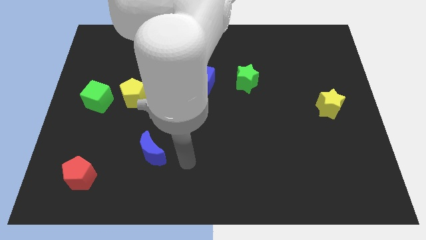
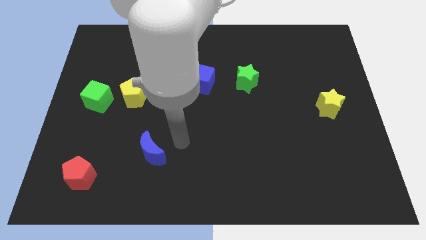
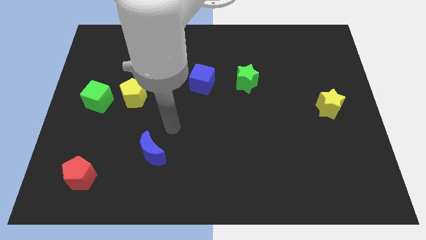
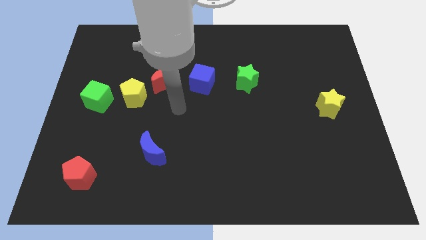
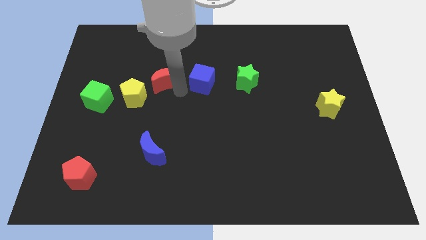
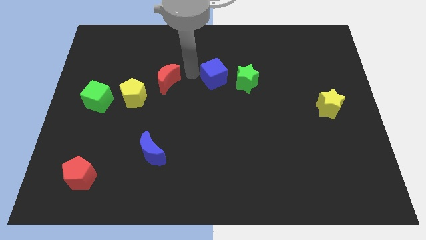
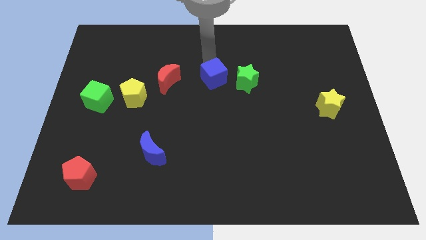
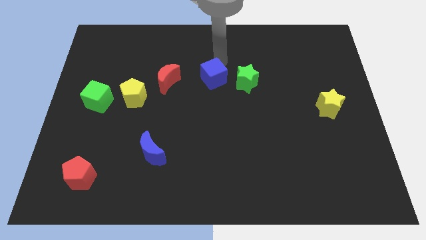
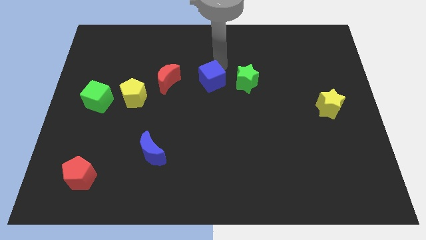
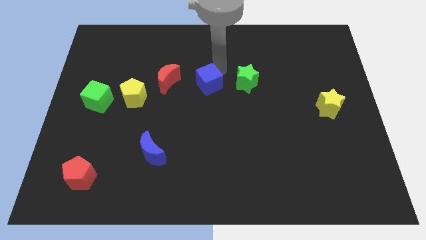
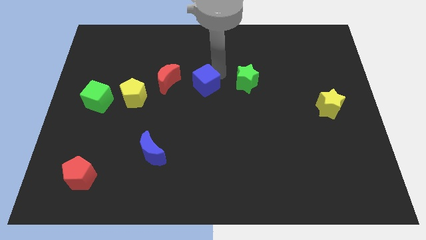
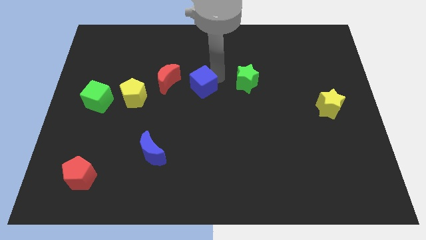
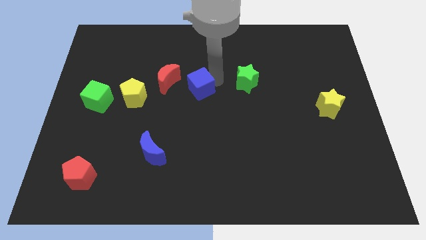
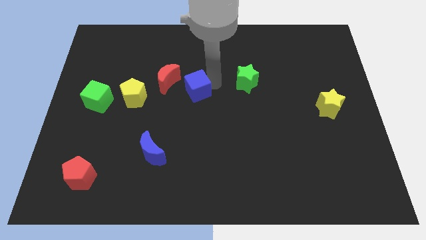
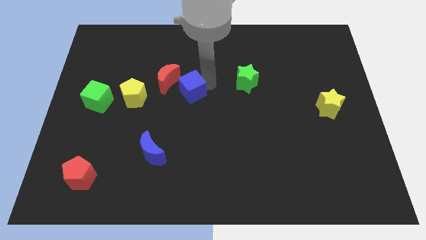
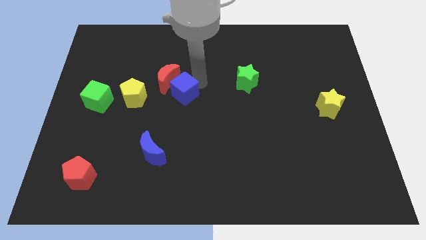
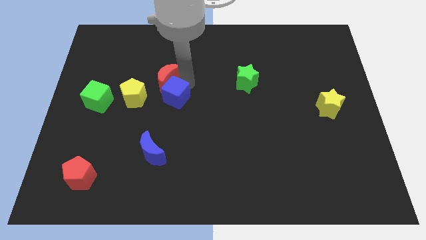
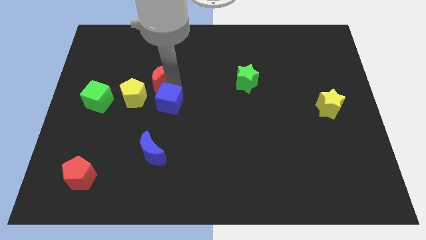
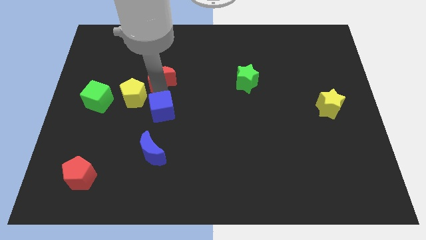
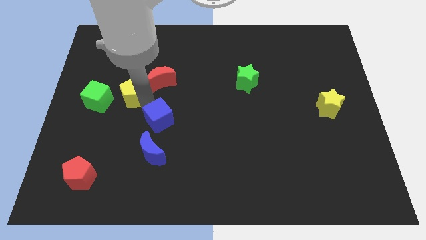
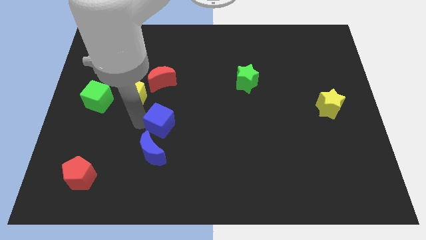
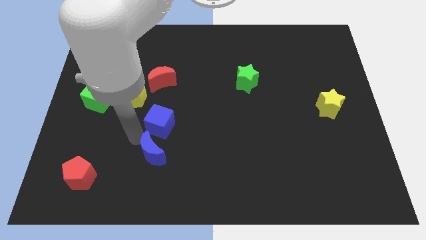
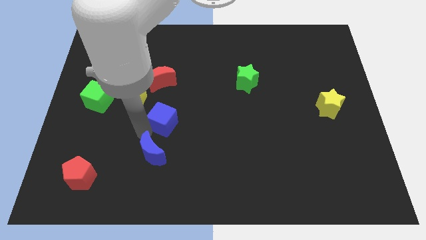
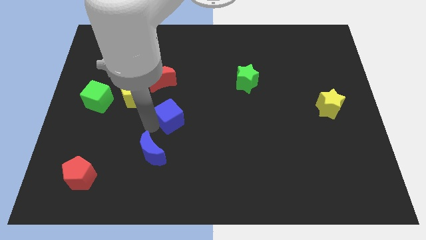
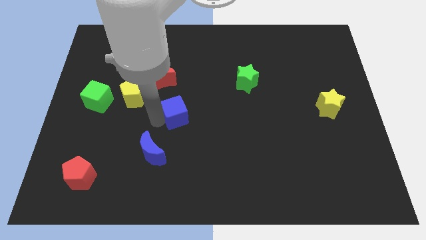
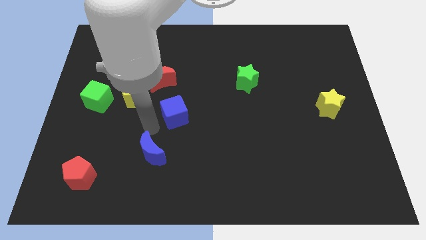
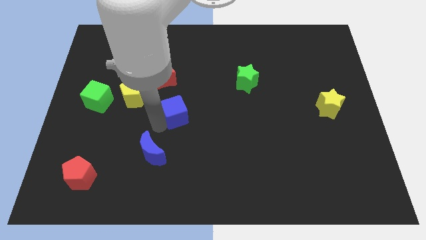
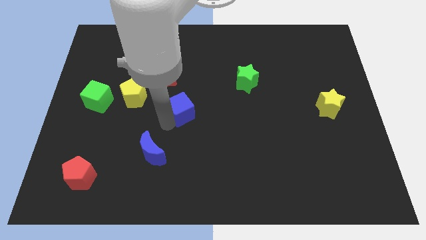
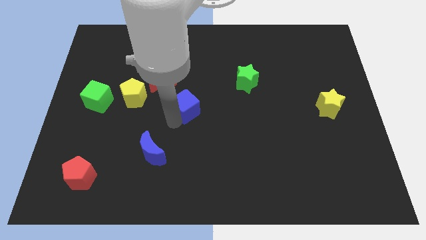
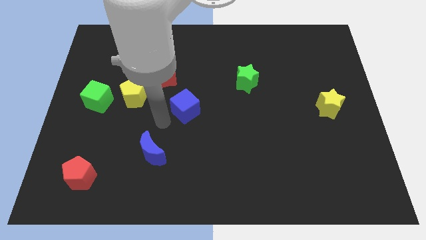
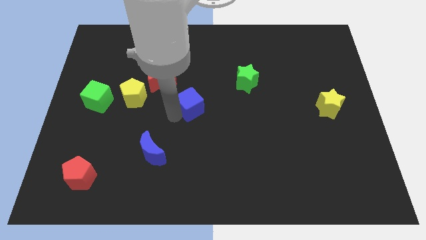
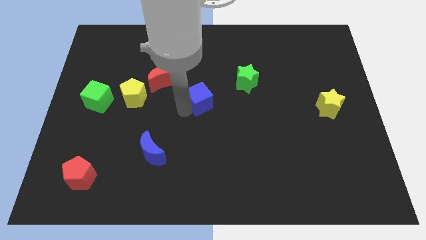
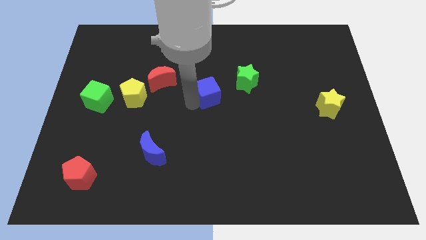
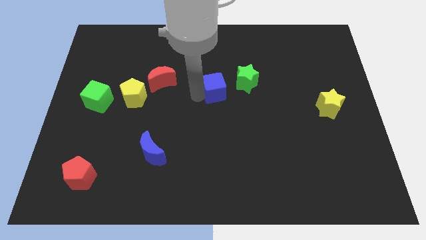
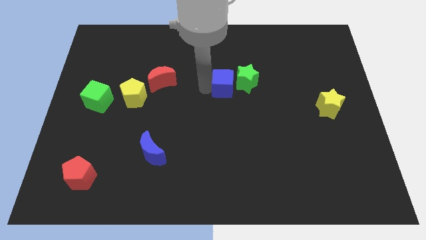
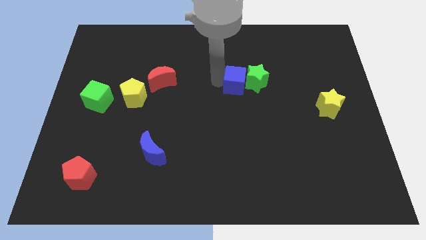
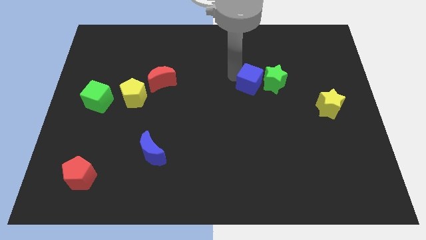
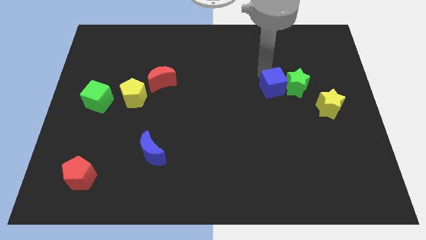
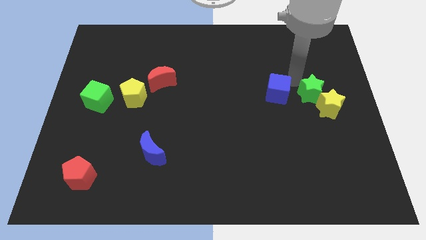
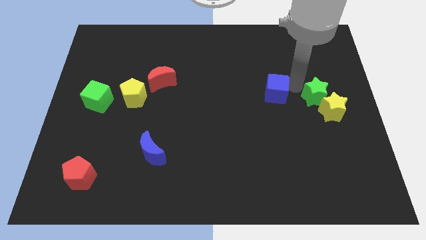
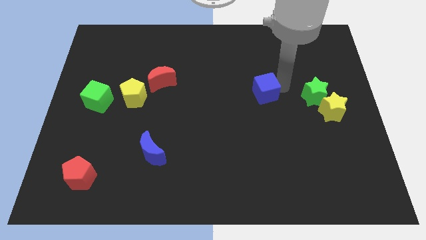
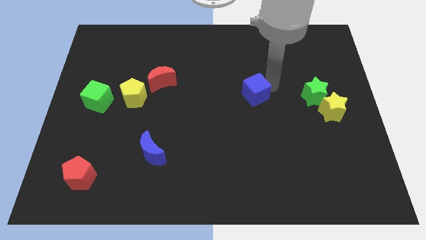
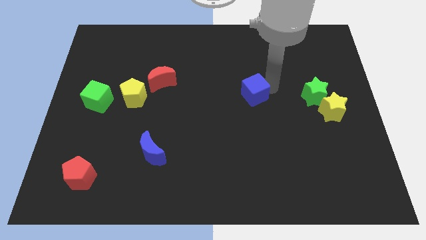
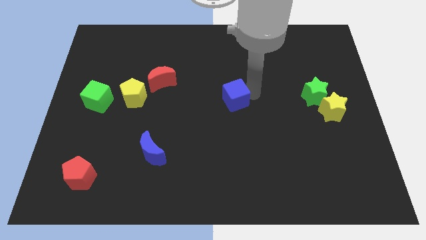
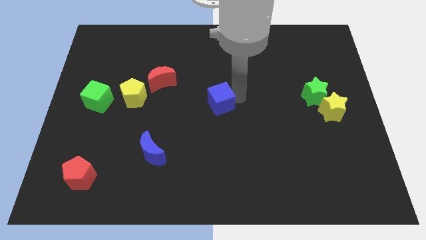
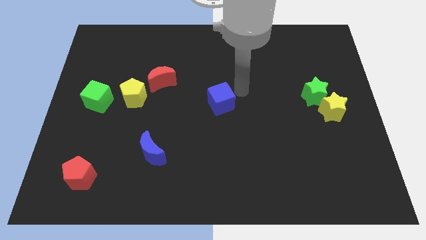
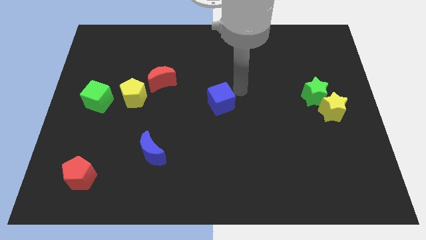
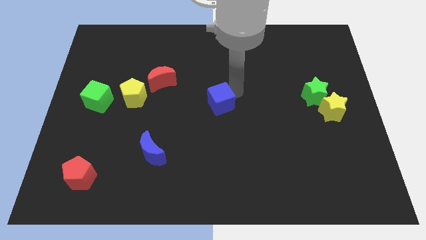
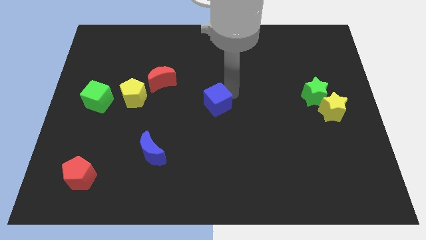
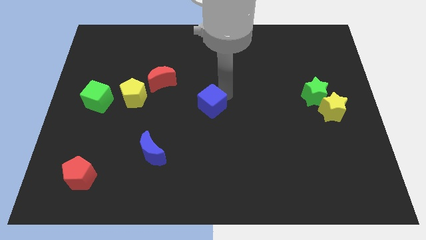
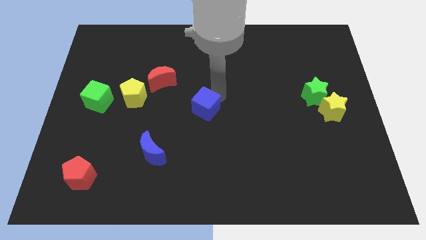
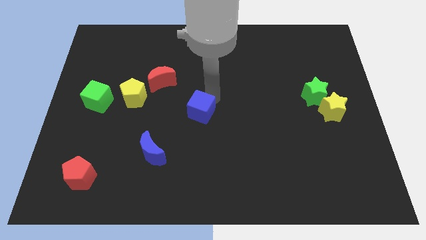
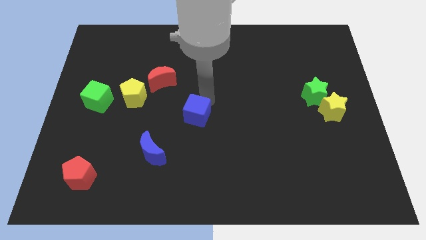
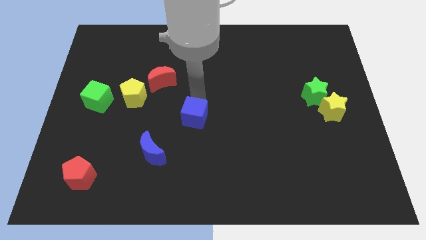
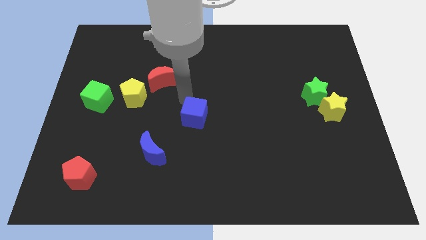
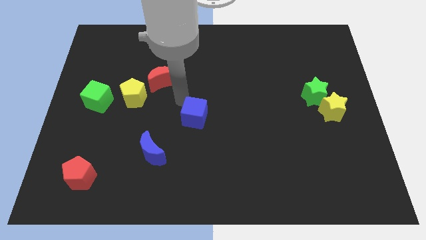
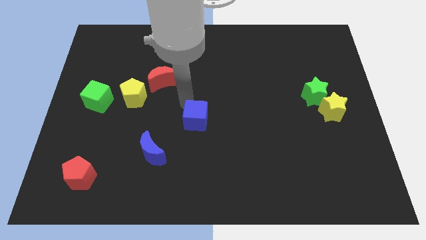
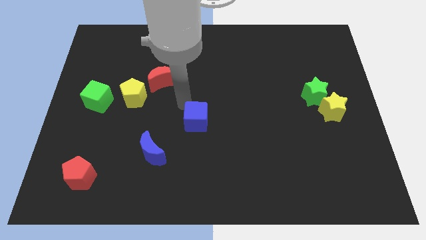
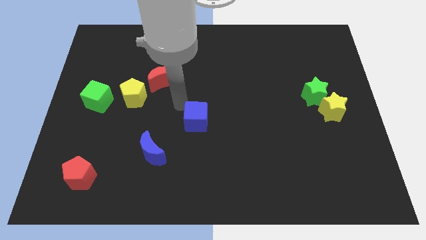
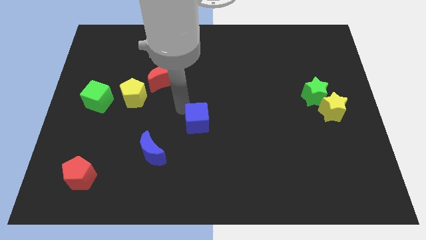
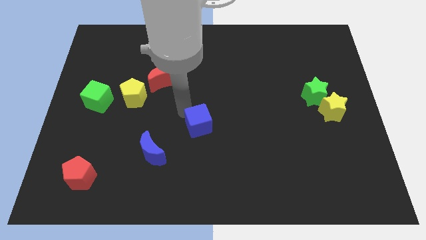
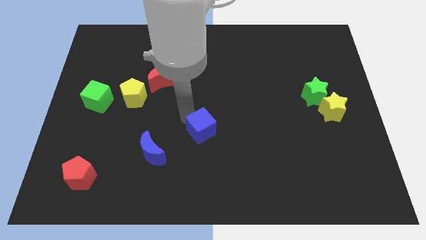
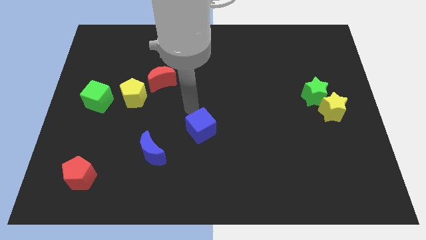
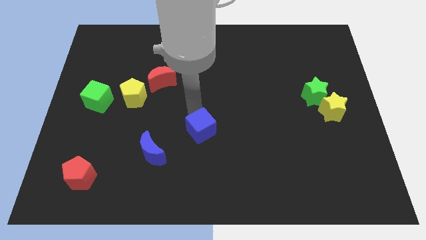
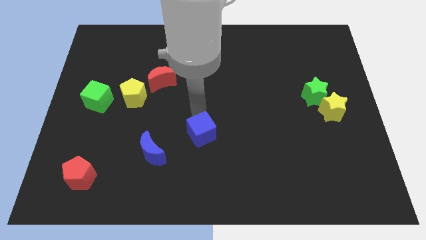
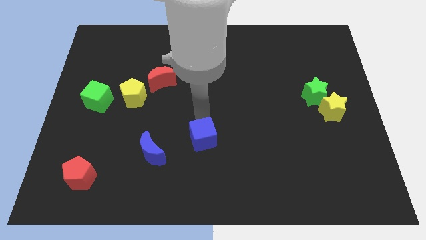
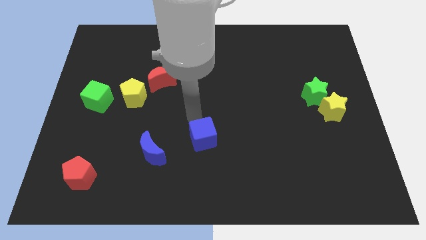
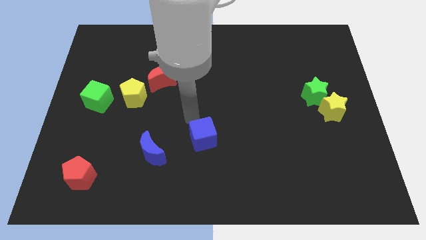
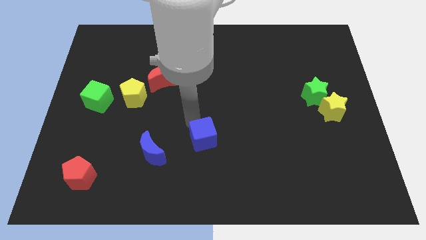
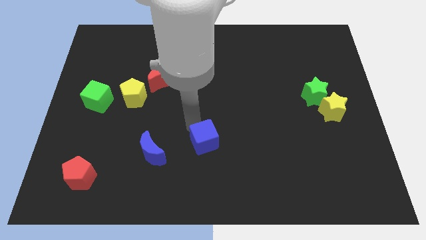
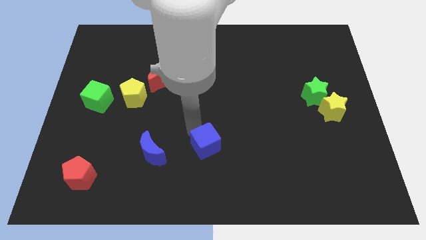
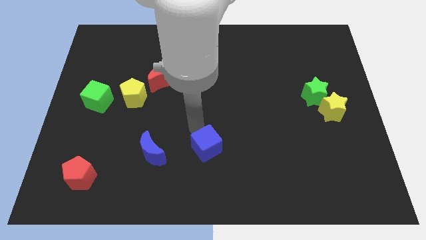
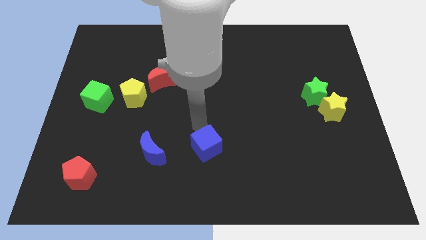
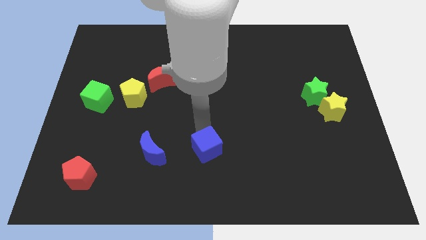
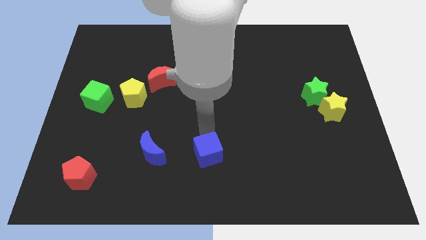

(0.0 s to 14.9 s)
move the blue cube to the bottom side
